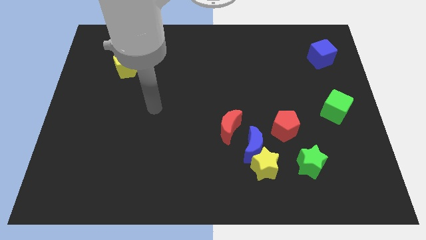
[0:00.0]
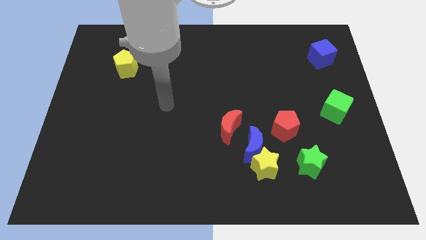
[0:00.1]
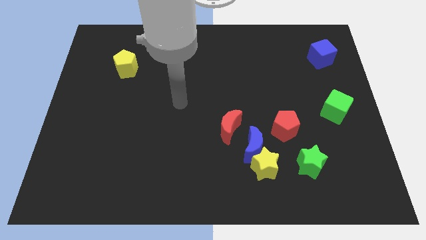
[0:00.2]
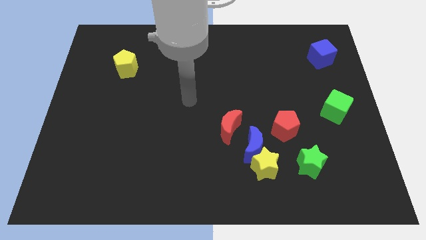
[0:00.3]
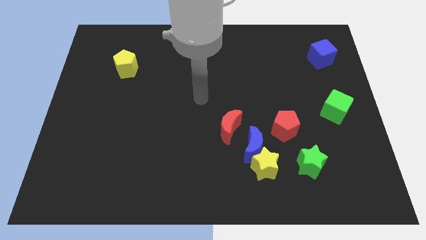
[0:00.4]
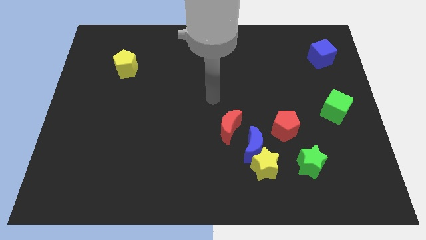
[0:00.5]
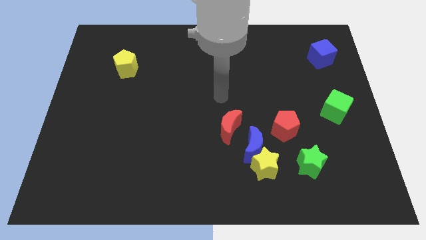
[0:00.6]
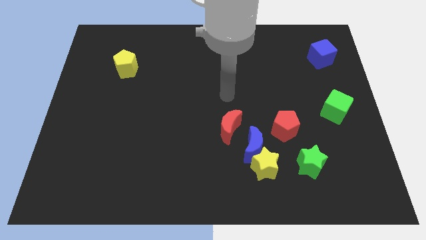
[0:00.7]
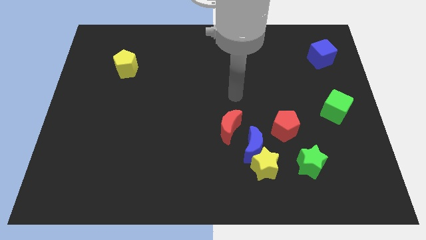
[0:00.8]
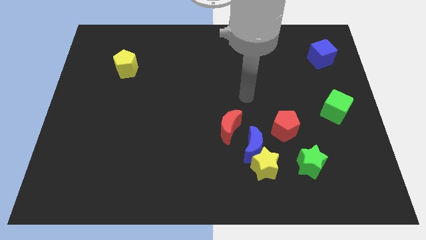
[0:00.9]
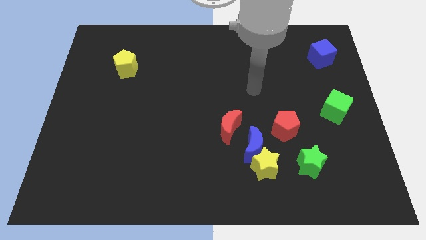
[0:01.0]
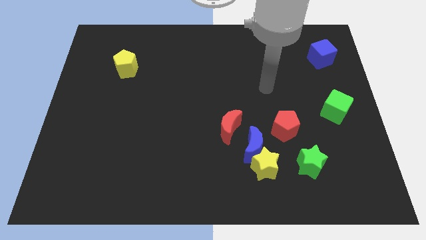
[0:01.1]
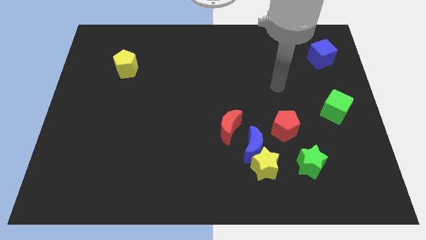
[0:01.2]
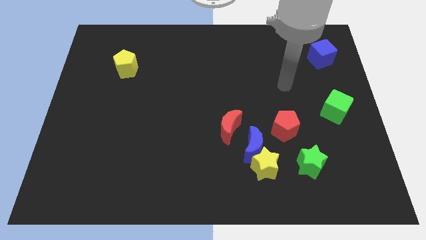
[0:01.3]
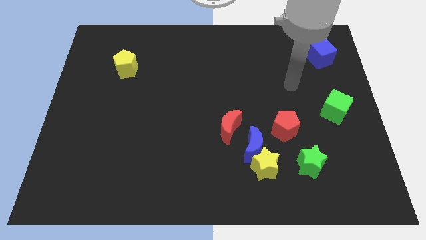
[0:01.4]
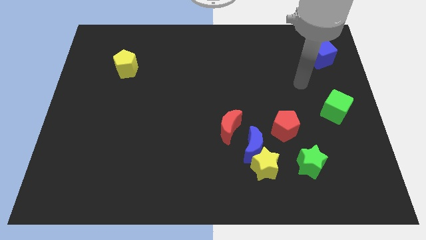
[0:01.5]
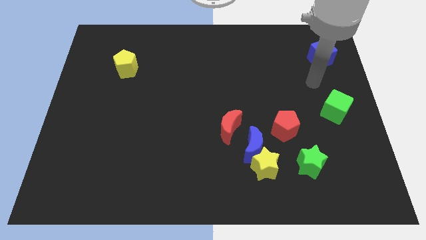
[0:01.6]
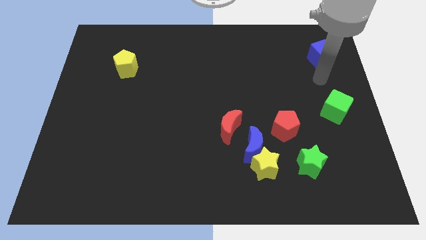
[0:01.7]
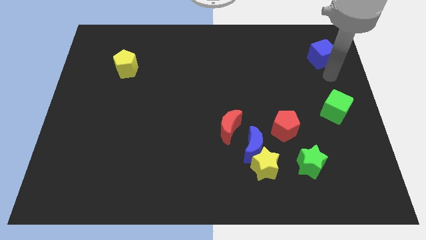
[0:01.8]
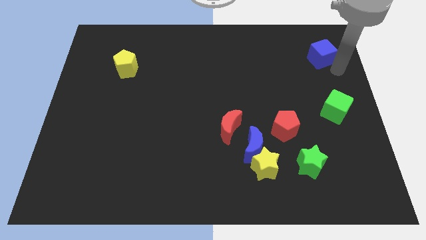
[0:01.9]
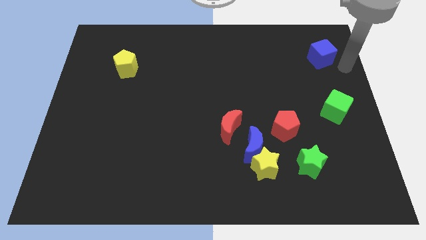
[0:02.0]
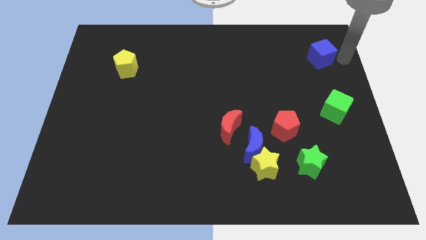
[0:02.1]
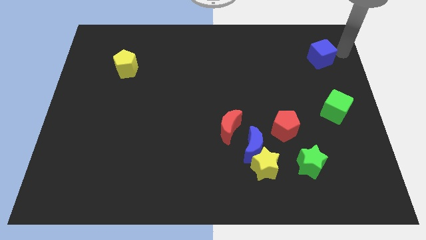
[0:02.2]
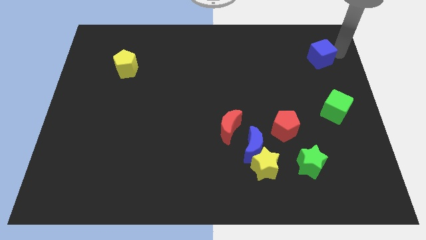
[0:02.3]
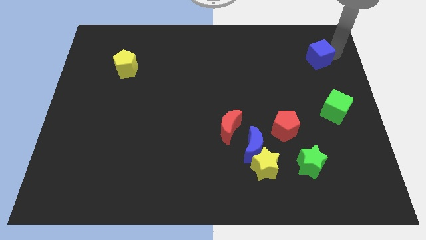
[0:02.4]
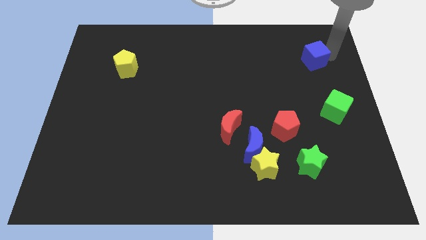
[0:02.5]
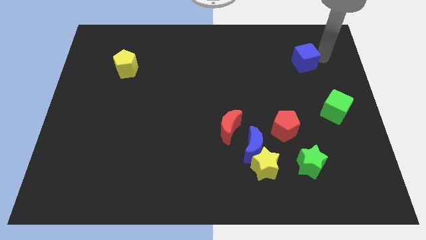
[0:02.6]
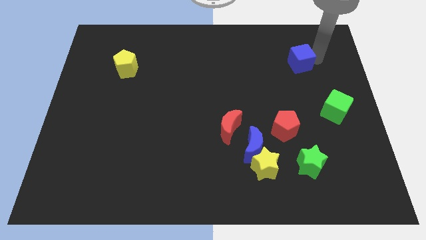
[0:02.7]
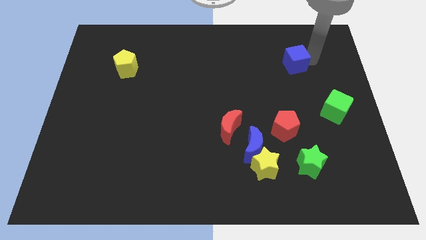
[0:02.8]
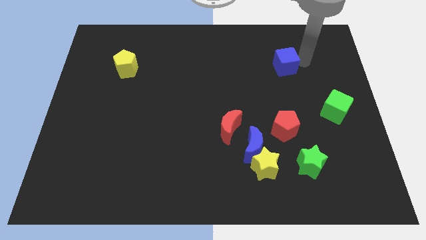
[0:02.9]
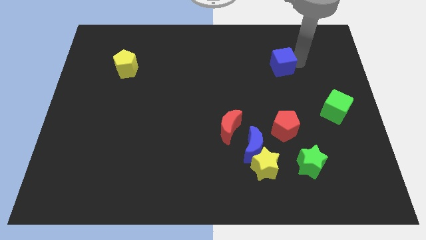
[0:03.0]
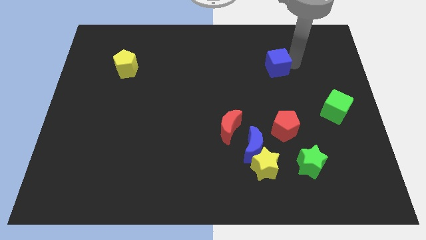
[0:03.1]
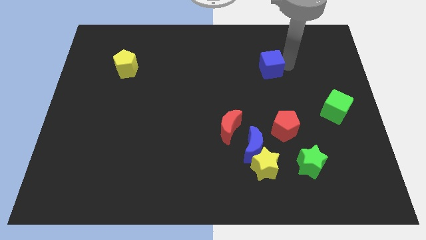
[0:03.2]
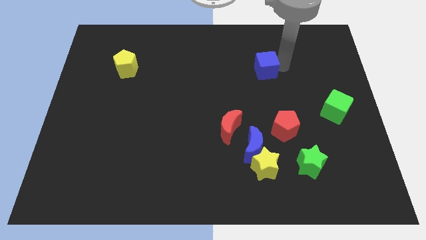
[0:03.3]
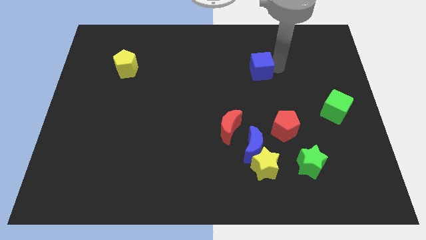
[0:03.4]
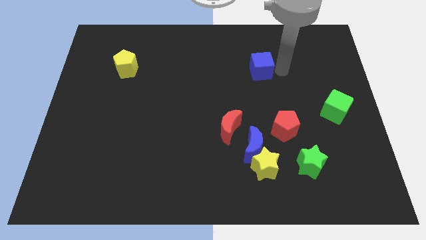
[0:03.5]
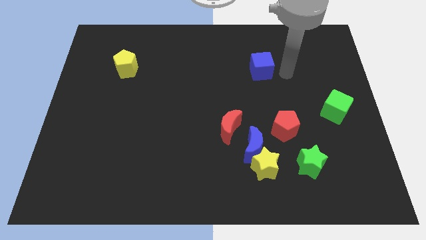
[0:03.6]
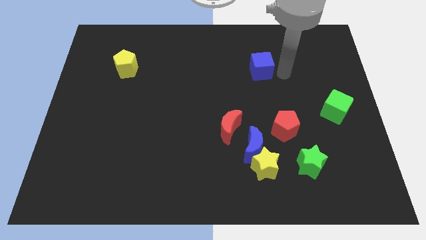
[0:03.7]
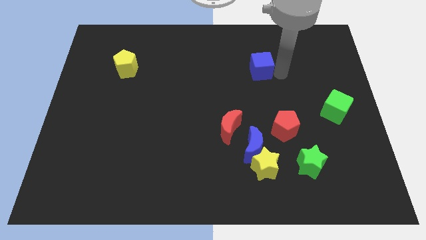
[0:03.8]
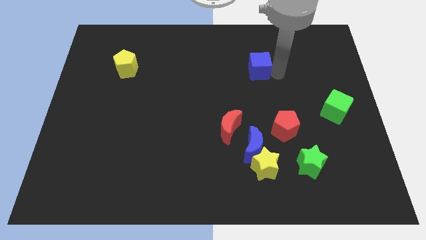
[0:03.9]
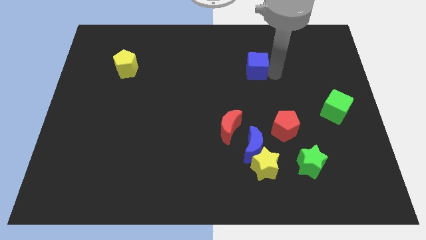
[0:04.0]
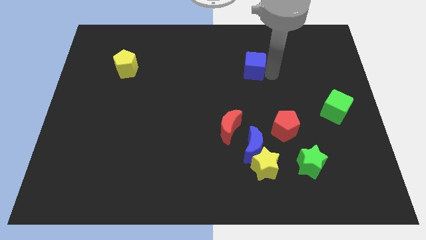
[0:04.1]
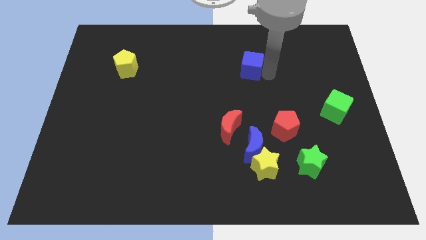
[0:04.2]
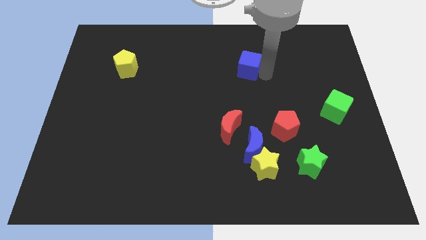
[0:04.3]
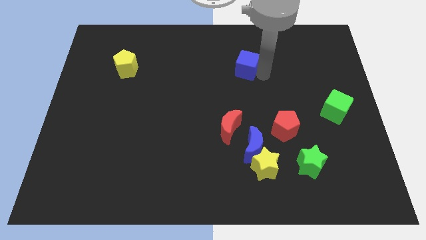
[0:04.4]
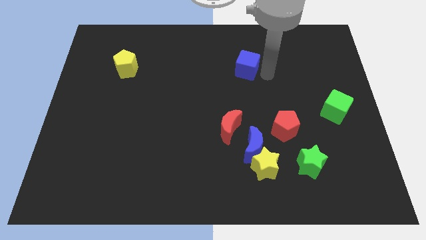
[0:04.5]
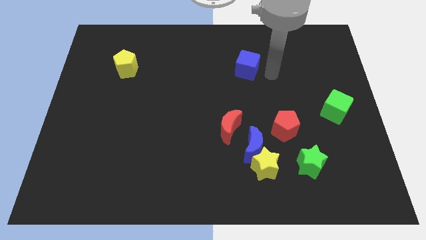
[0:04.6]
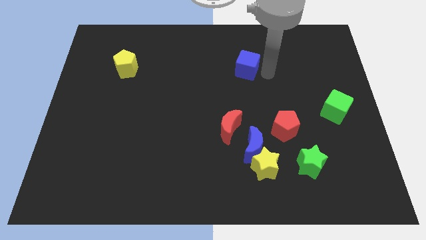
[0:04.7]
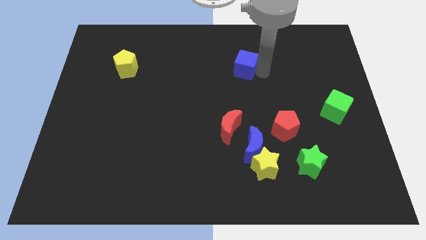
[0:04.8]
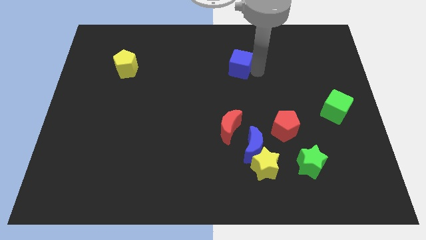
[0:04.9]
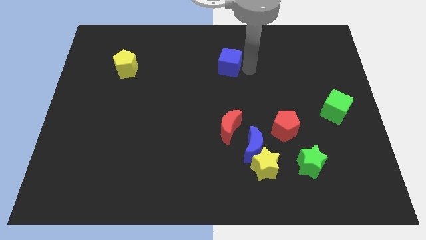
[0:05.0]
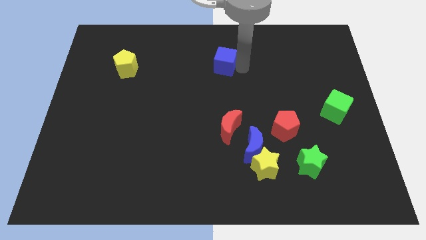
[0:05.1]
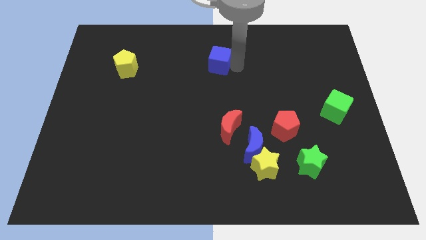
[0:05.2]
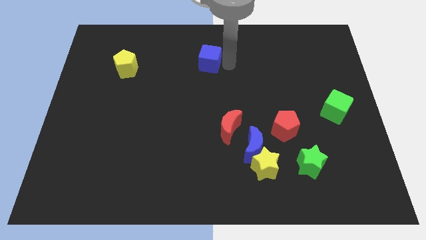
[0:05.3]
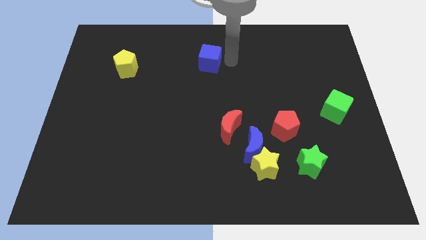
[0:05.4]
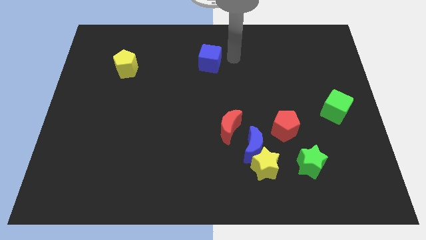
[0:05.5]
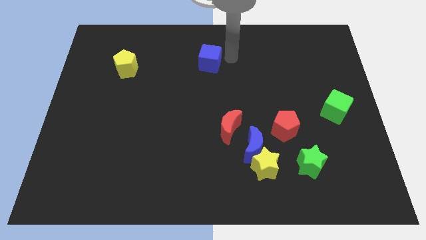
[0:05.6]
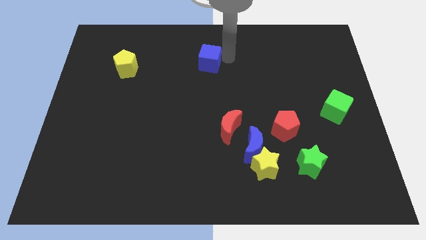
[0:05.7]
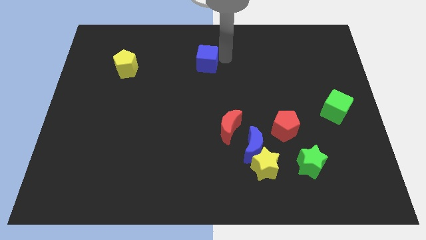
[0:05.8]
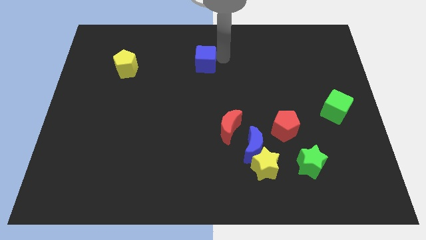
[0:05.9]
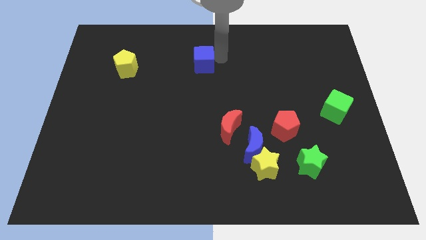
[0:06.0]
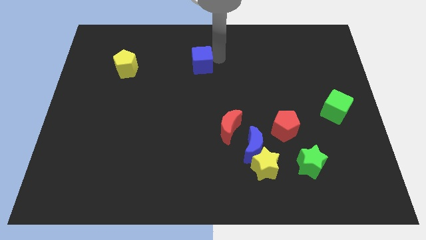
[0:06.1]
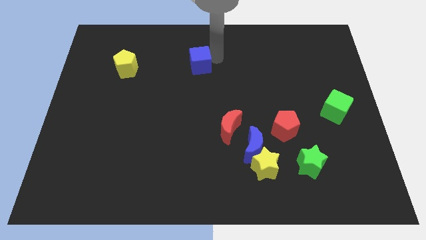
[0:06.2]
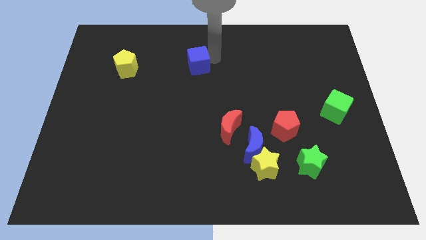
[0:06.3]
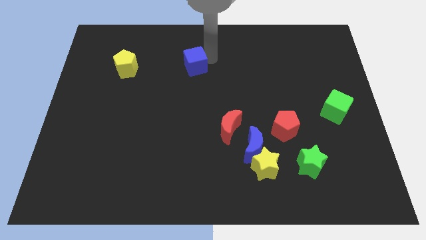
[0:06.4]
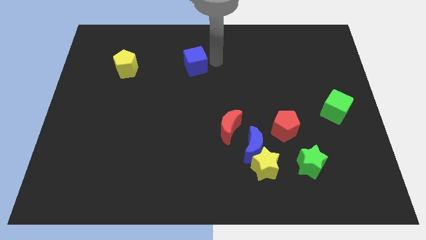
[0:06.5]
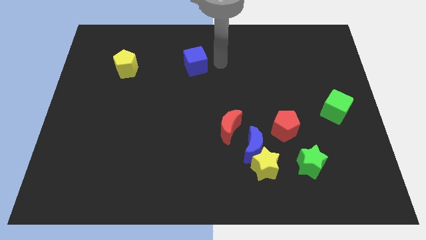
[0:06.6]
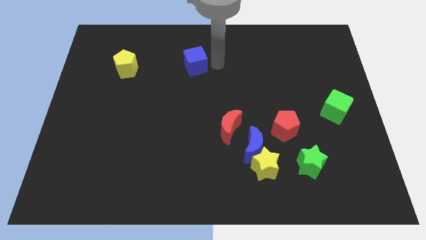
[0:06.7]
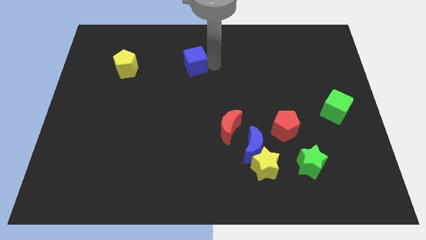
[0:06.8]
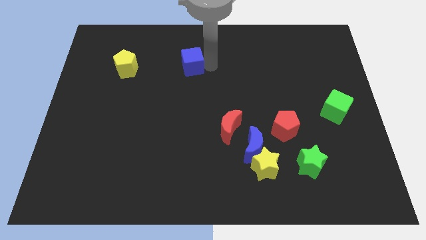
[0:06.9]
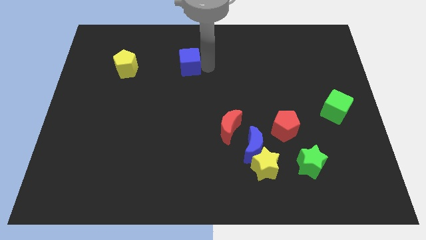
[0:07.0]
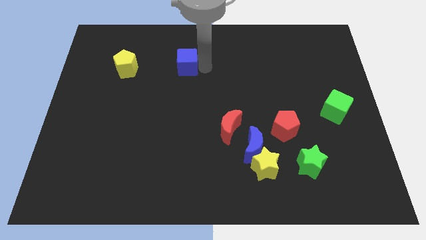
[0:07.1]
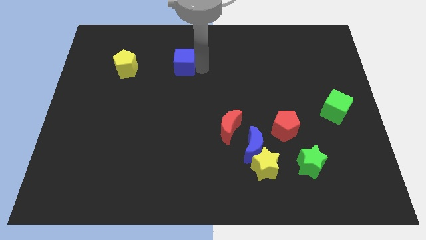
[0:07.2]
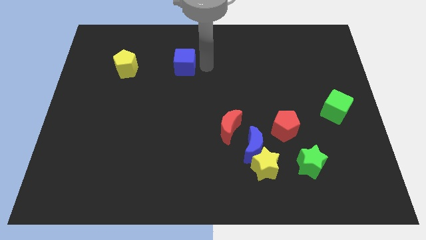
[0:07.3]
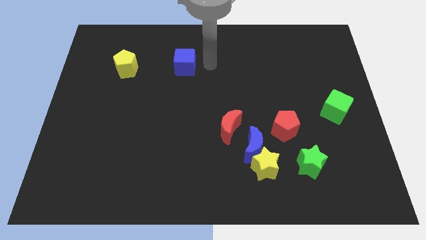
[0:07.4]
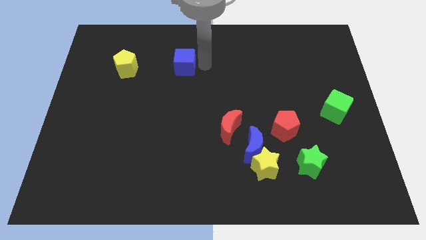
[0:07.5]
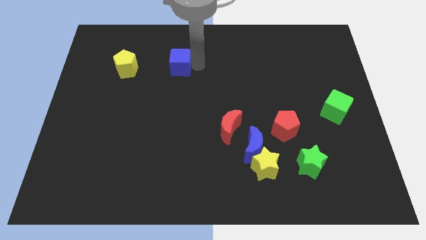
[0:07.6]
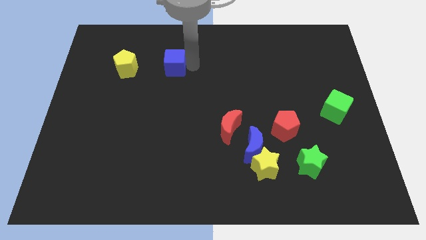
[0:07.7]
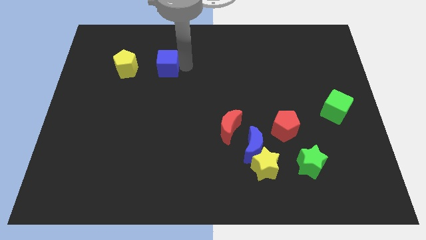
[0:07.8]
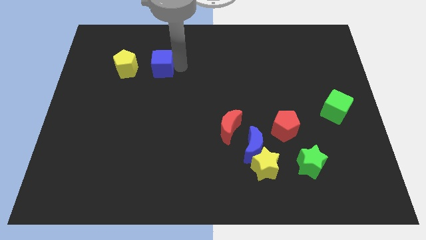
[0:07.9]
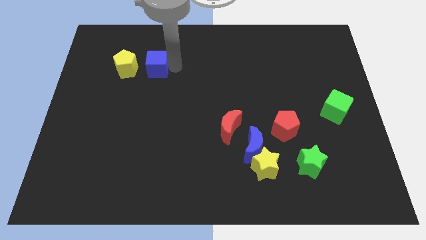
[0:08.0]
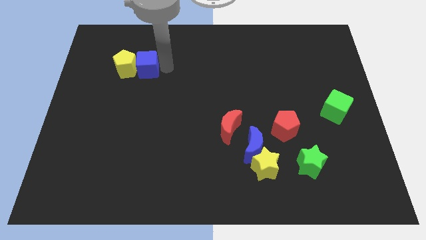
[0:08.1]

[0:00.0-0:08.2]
slide the blue cube towards the yellow pentagon
